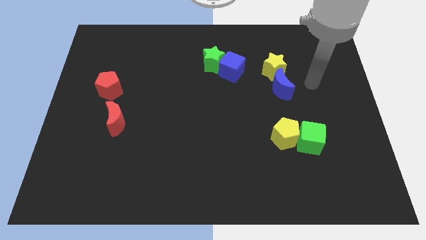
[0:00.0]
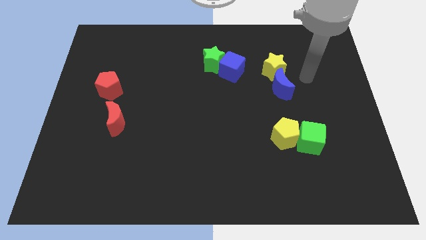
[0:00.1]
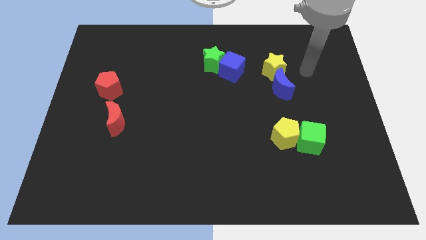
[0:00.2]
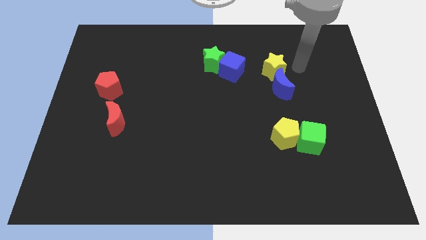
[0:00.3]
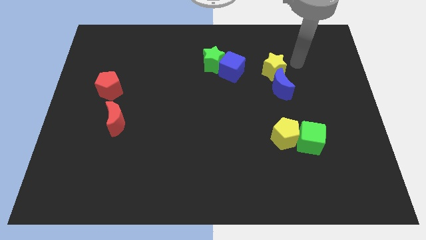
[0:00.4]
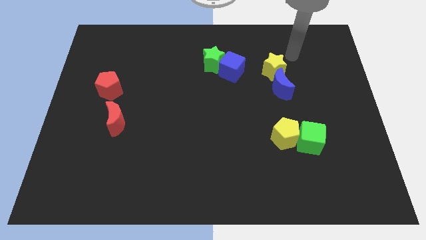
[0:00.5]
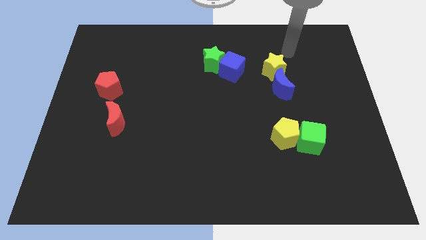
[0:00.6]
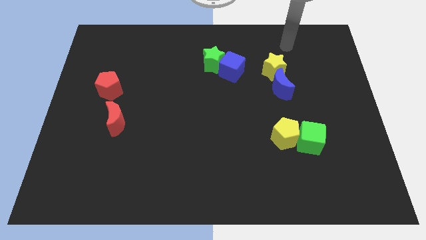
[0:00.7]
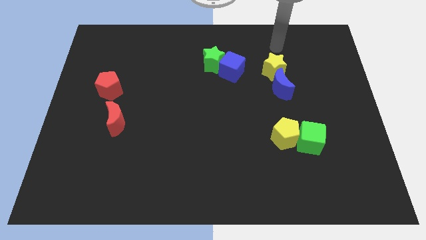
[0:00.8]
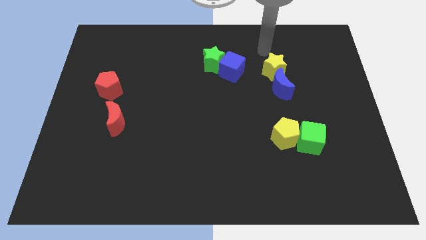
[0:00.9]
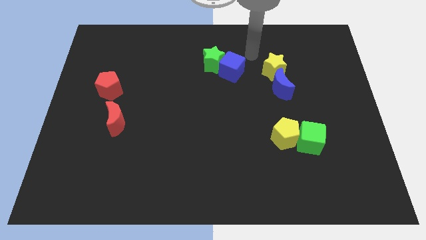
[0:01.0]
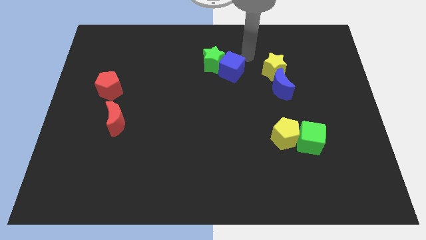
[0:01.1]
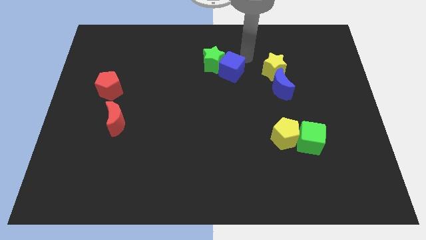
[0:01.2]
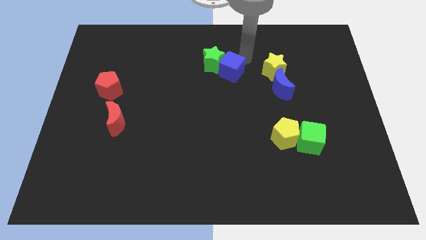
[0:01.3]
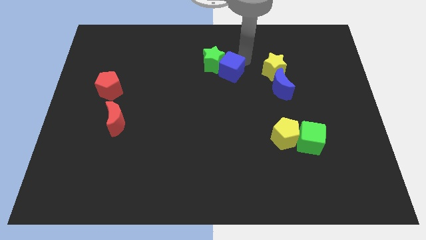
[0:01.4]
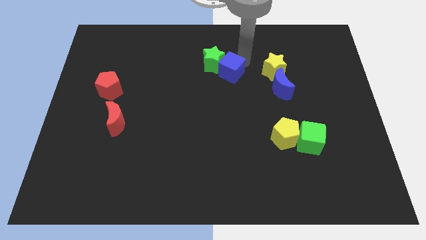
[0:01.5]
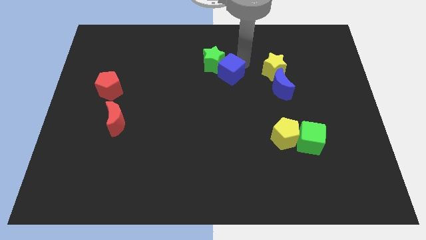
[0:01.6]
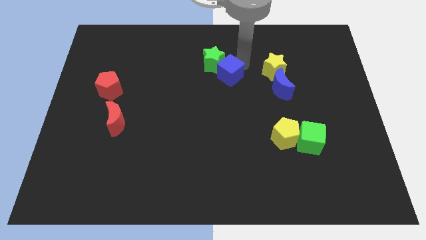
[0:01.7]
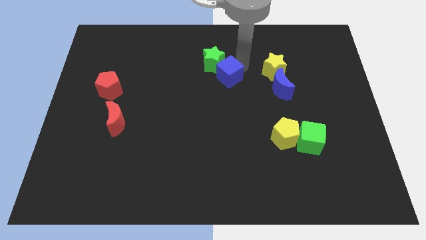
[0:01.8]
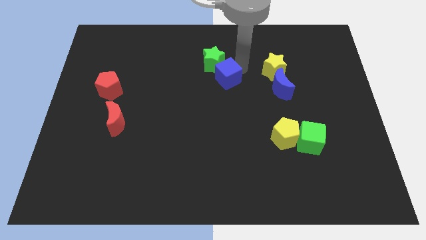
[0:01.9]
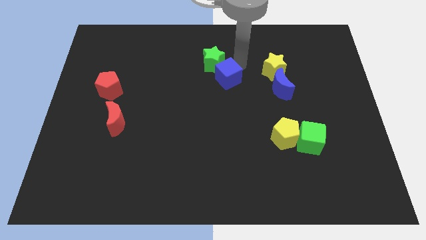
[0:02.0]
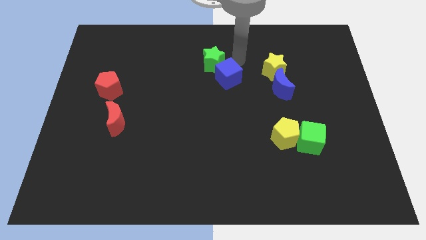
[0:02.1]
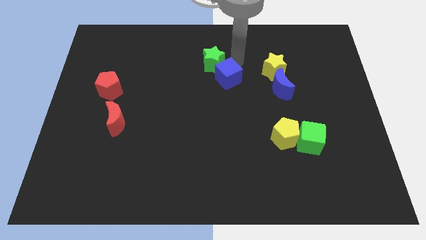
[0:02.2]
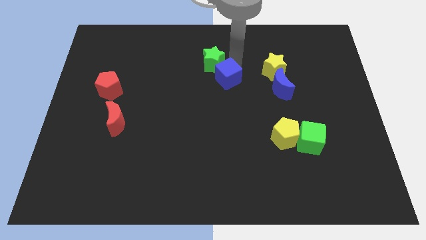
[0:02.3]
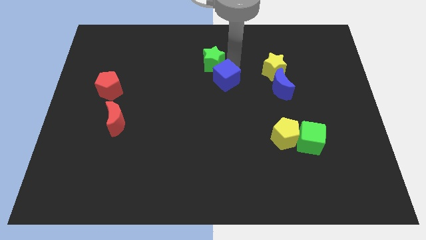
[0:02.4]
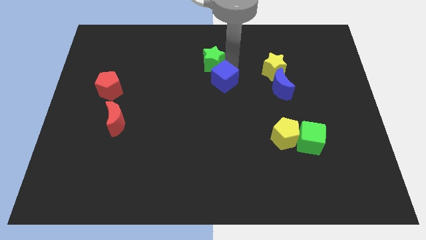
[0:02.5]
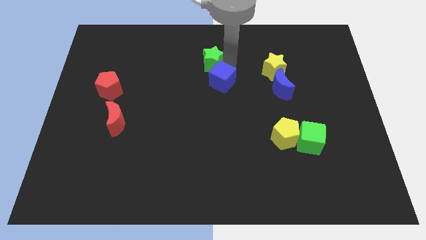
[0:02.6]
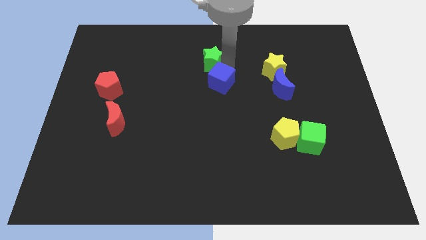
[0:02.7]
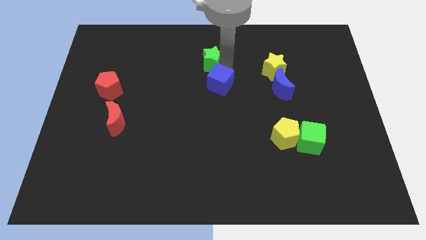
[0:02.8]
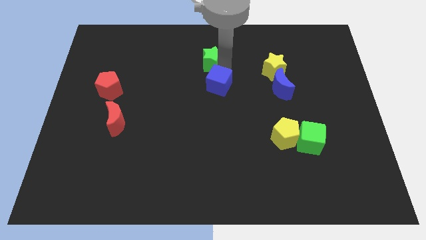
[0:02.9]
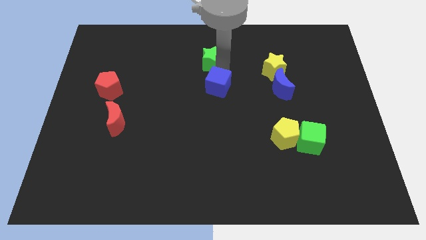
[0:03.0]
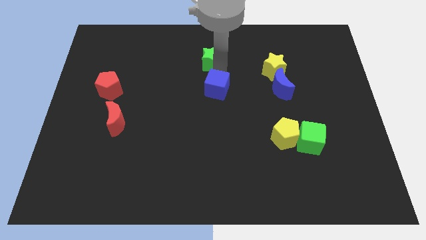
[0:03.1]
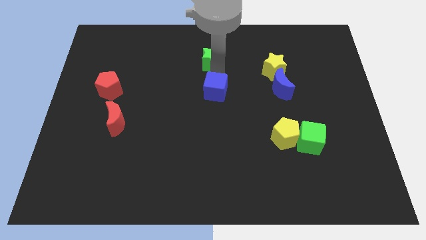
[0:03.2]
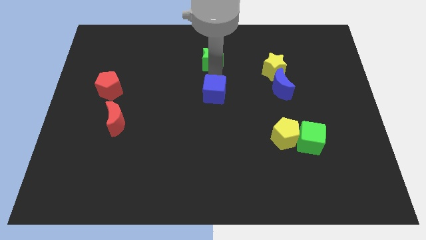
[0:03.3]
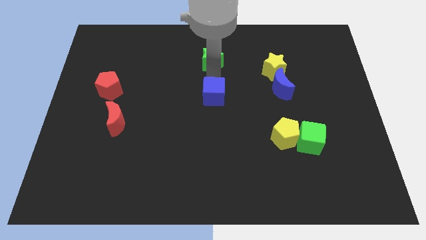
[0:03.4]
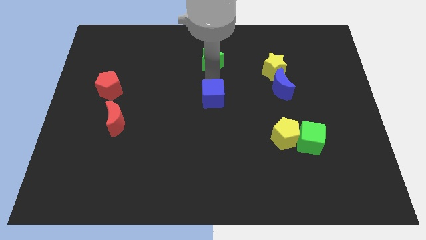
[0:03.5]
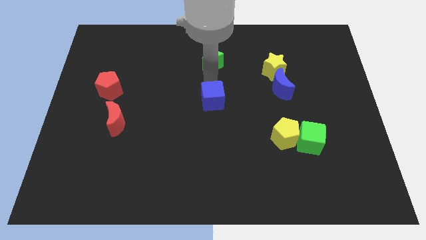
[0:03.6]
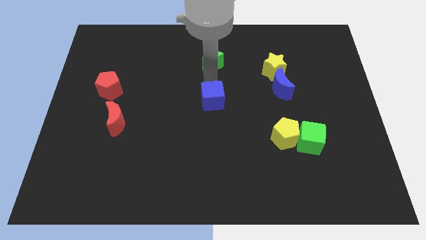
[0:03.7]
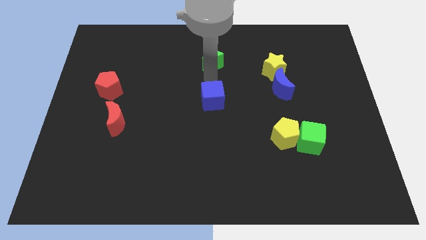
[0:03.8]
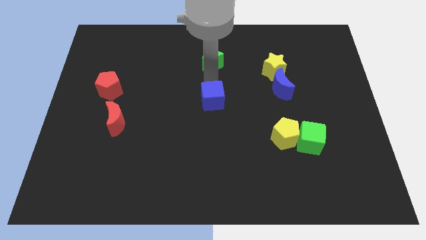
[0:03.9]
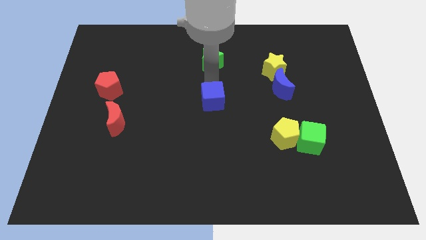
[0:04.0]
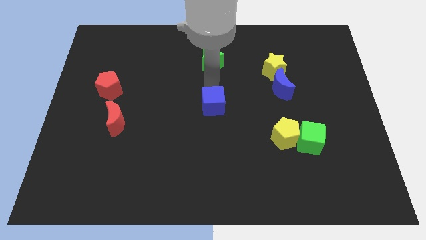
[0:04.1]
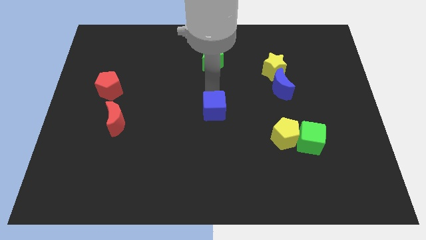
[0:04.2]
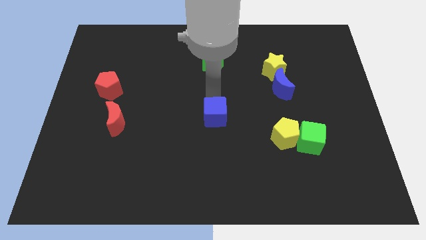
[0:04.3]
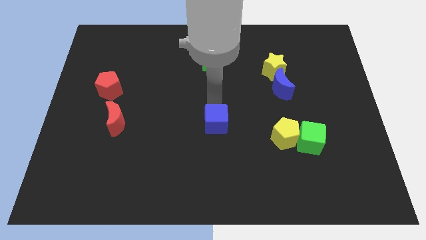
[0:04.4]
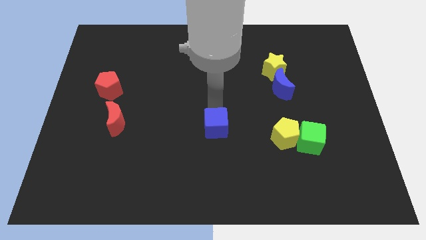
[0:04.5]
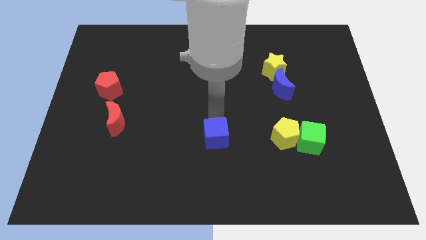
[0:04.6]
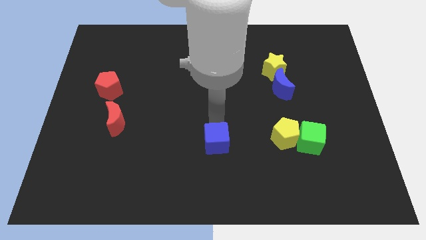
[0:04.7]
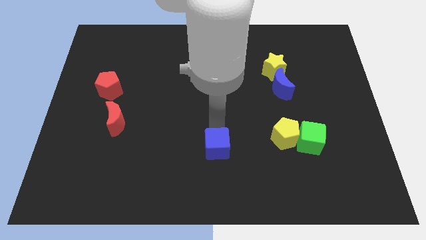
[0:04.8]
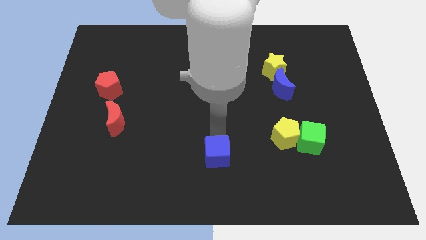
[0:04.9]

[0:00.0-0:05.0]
push the blue cube to the bottom

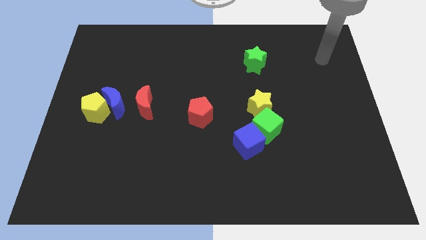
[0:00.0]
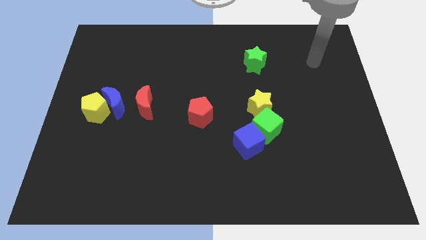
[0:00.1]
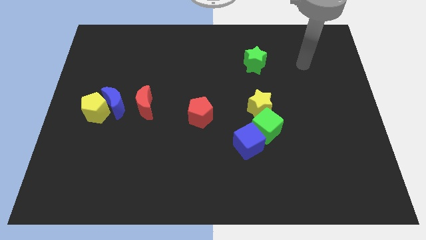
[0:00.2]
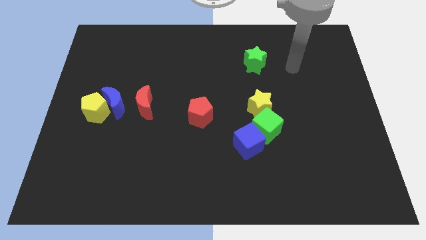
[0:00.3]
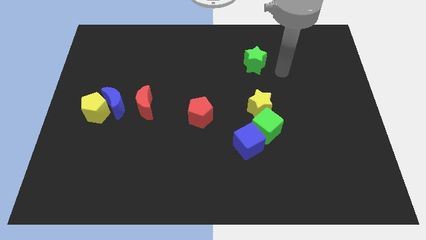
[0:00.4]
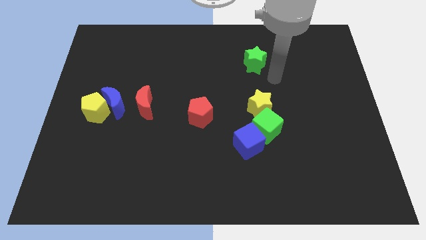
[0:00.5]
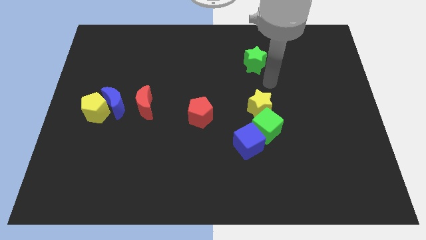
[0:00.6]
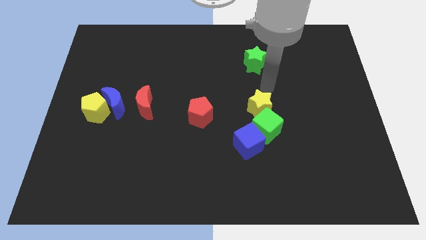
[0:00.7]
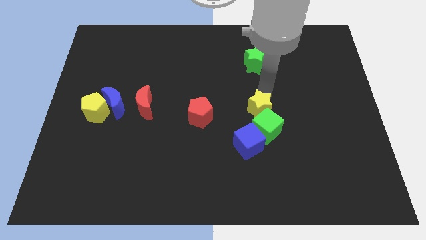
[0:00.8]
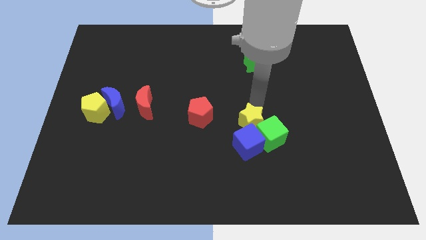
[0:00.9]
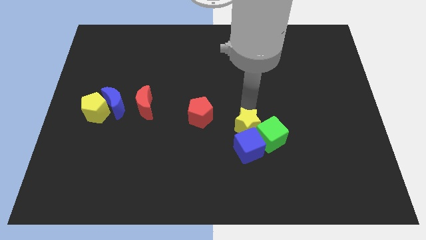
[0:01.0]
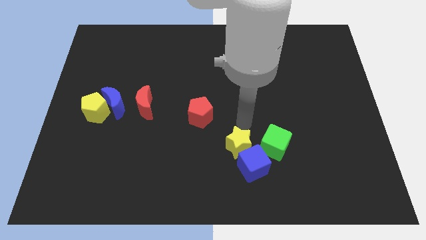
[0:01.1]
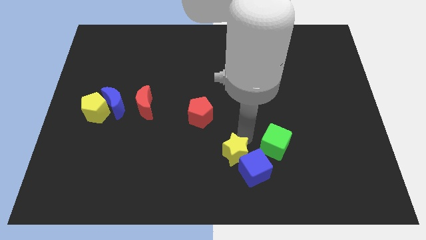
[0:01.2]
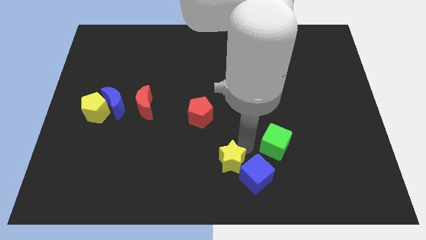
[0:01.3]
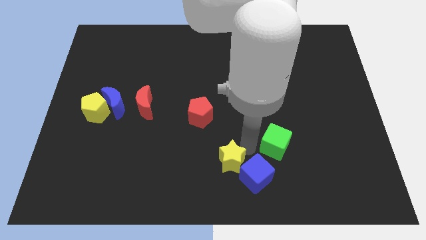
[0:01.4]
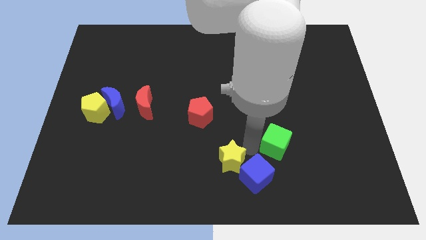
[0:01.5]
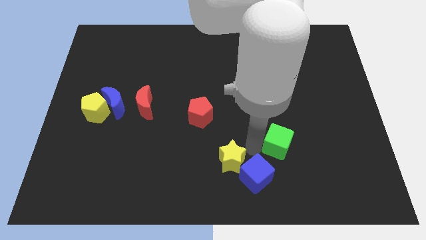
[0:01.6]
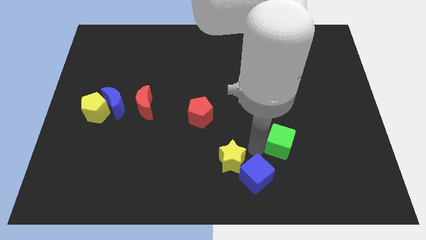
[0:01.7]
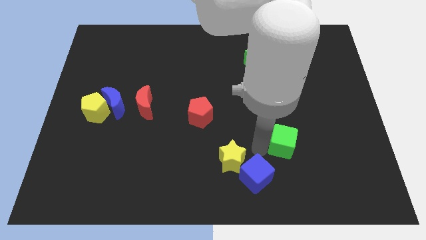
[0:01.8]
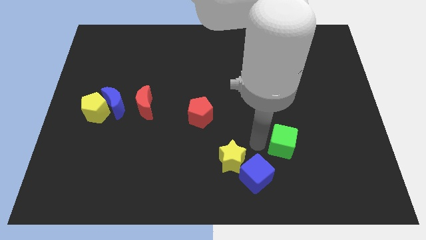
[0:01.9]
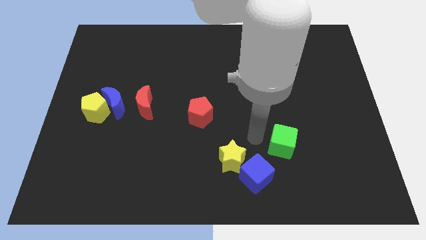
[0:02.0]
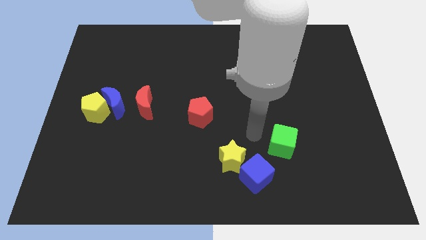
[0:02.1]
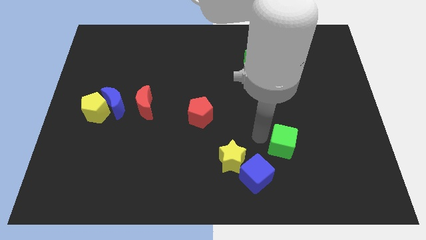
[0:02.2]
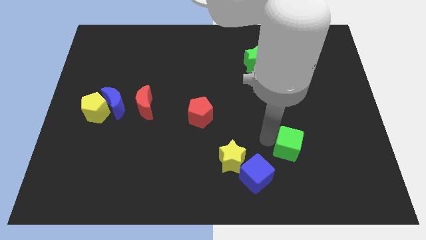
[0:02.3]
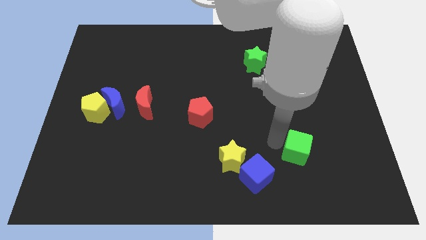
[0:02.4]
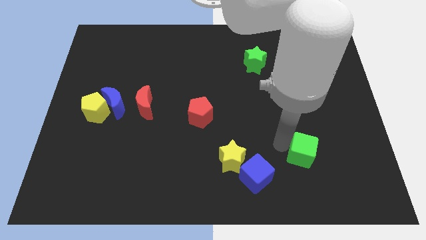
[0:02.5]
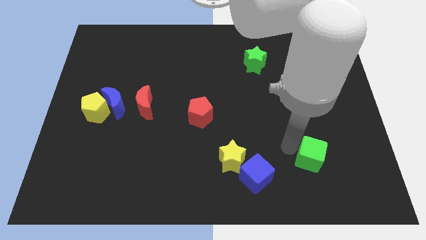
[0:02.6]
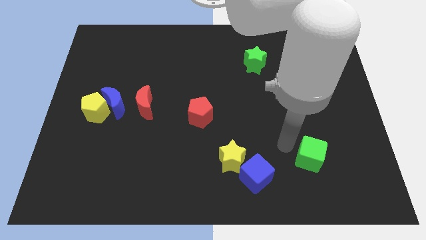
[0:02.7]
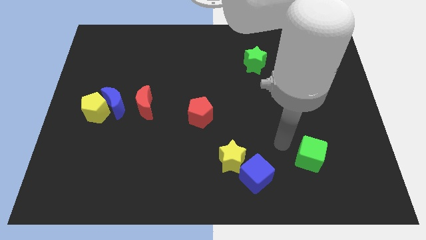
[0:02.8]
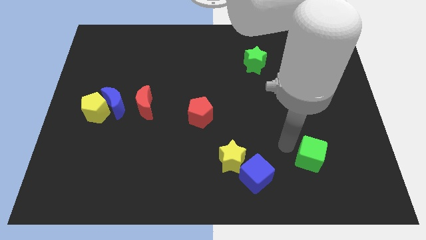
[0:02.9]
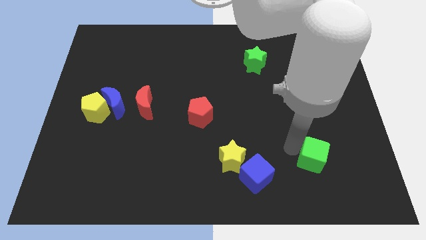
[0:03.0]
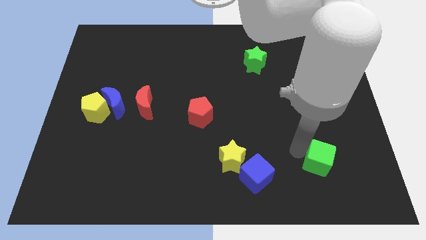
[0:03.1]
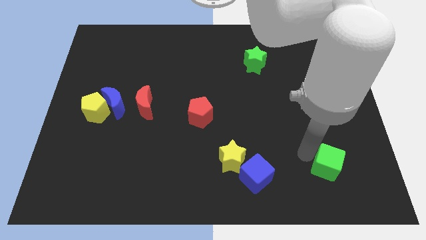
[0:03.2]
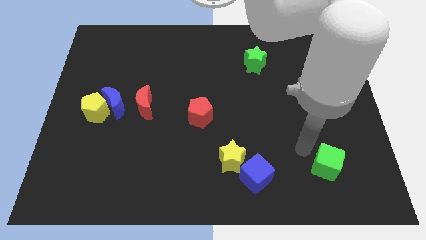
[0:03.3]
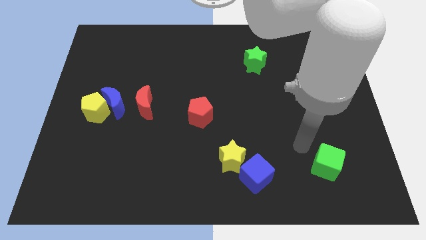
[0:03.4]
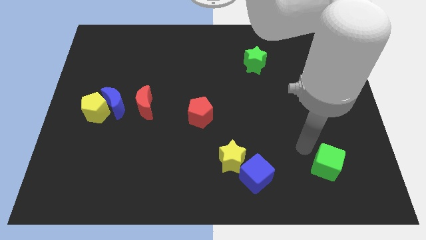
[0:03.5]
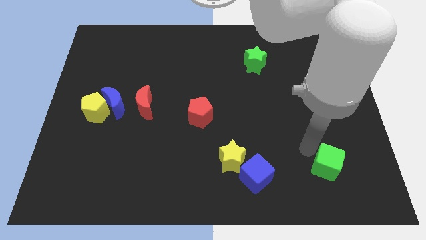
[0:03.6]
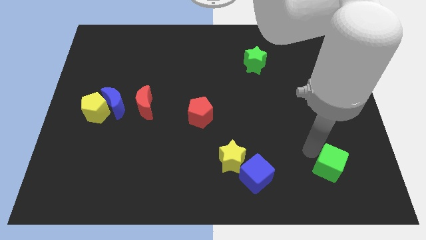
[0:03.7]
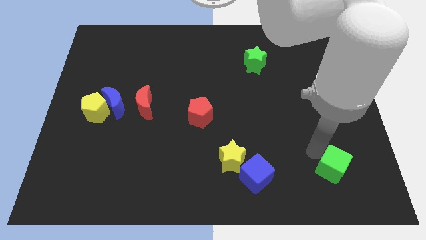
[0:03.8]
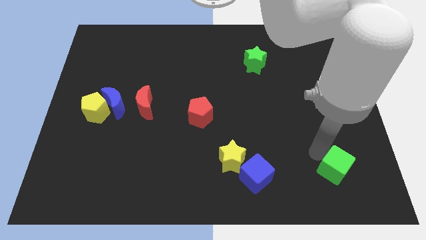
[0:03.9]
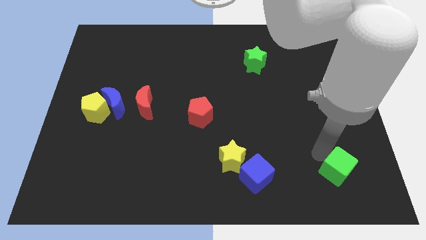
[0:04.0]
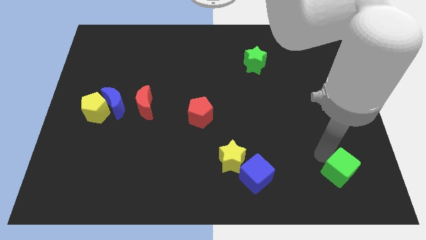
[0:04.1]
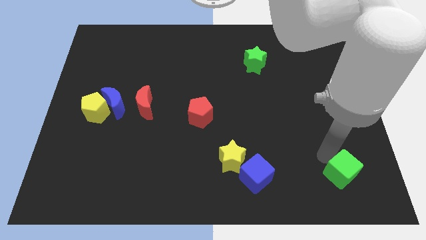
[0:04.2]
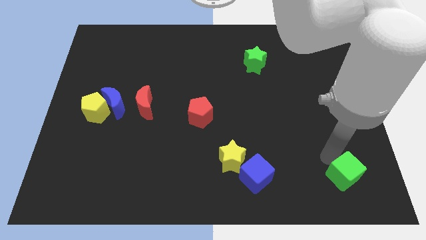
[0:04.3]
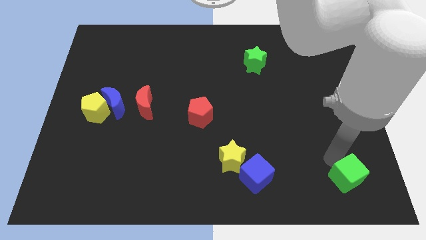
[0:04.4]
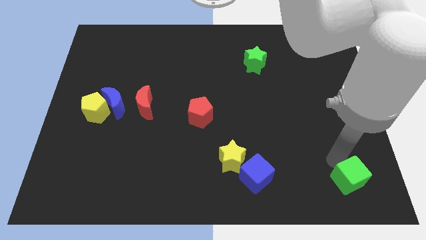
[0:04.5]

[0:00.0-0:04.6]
move the green cube to the bottom right corner
